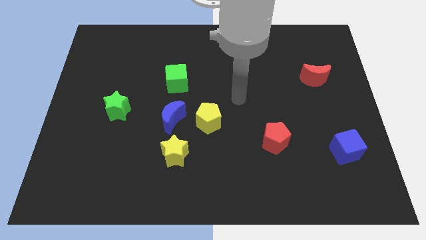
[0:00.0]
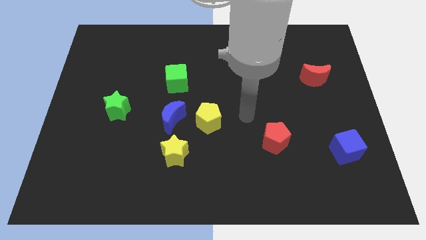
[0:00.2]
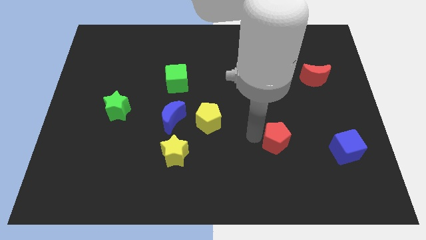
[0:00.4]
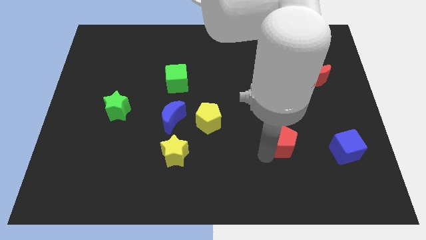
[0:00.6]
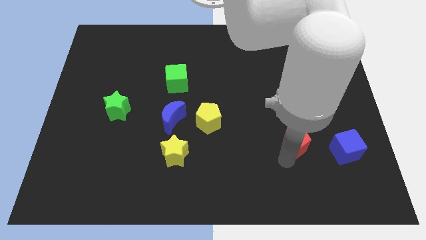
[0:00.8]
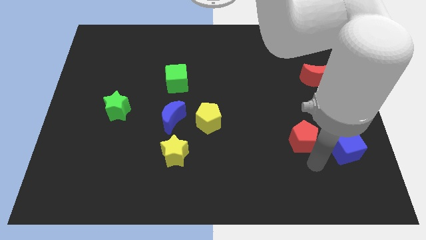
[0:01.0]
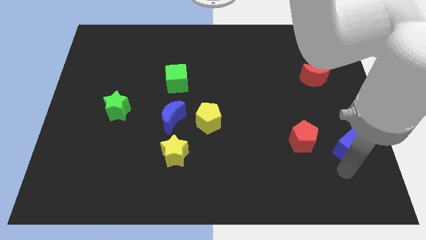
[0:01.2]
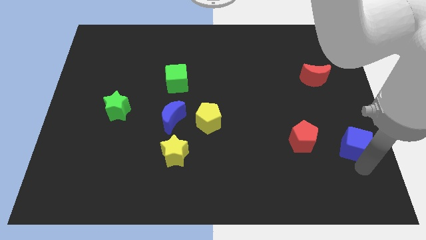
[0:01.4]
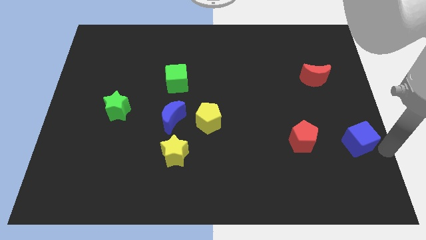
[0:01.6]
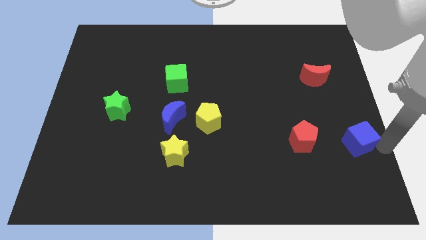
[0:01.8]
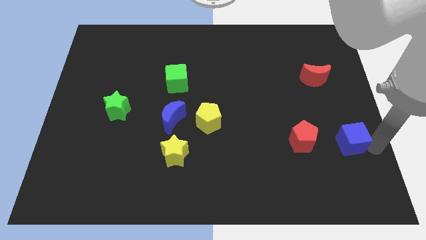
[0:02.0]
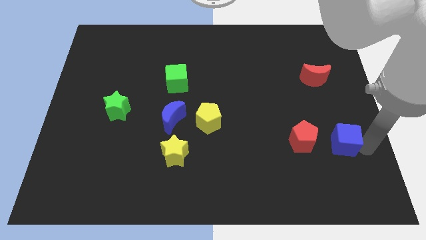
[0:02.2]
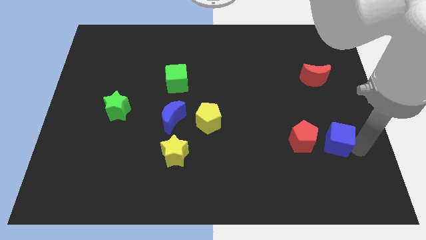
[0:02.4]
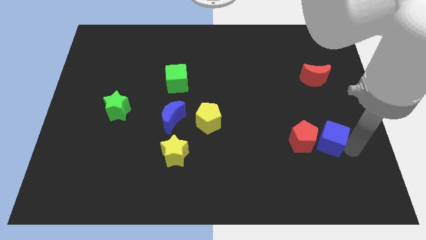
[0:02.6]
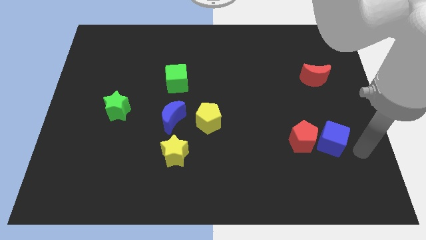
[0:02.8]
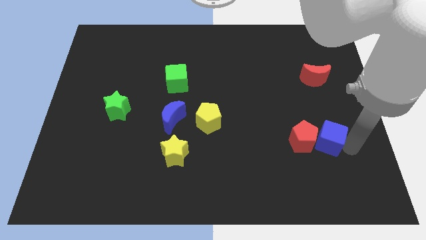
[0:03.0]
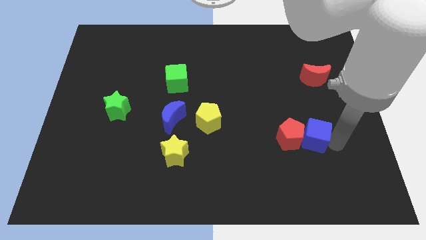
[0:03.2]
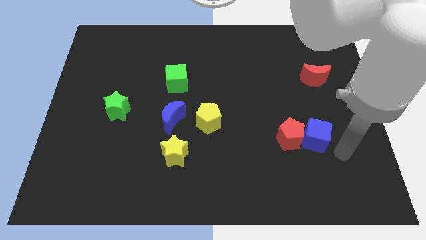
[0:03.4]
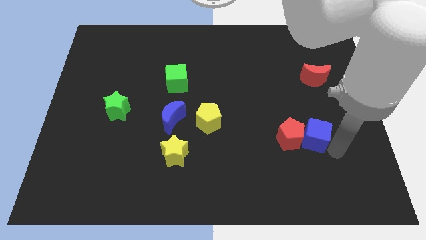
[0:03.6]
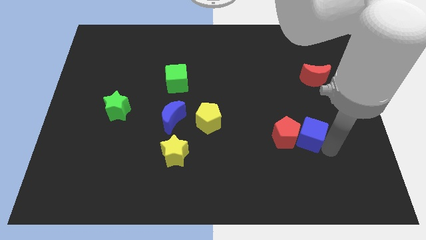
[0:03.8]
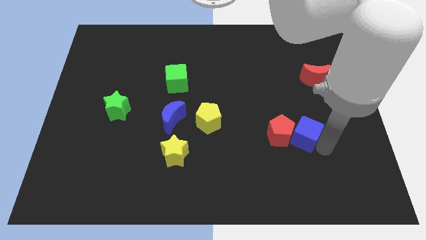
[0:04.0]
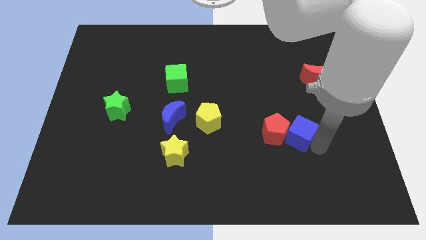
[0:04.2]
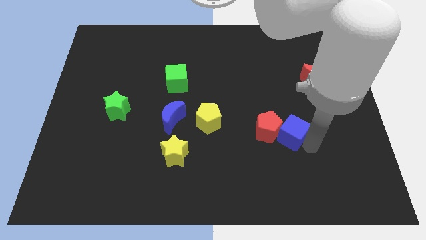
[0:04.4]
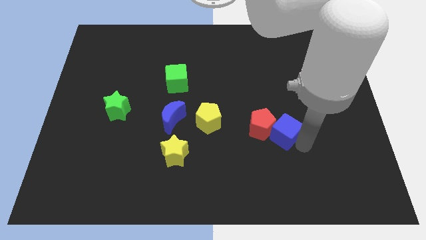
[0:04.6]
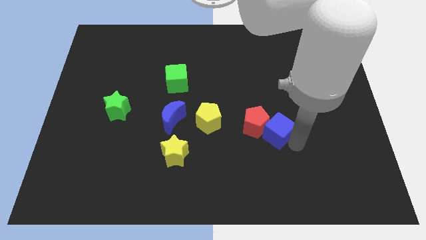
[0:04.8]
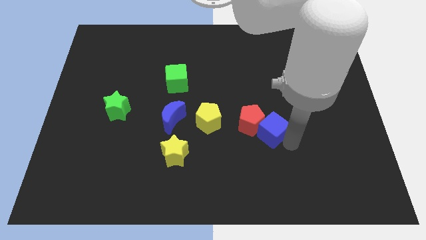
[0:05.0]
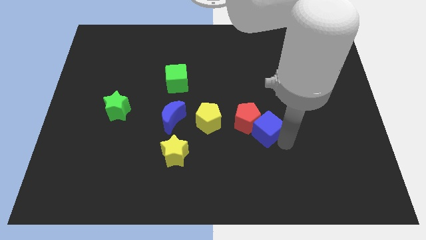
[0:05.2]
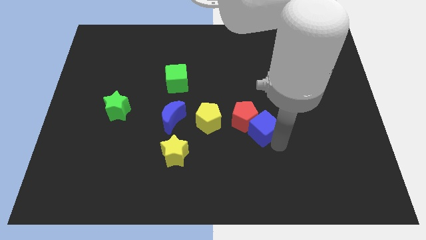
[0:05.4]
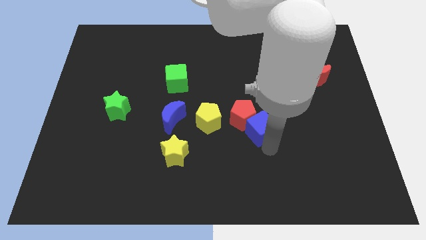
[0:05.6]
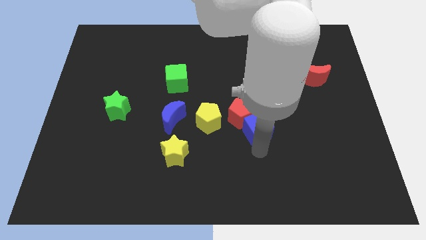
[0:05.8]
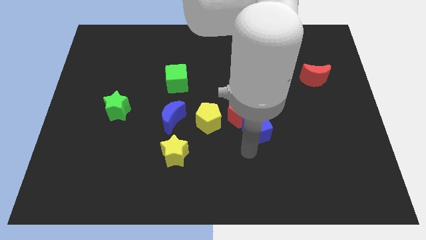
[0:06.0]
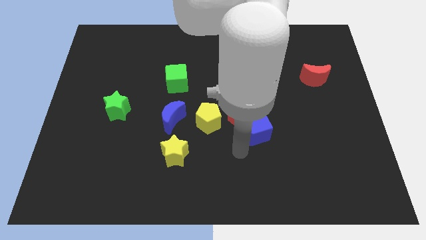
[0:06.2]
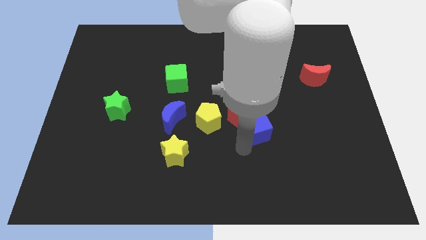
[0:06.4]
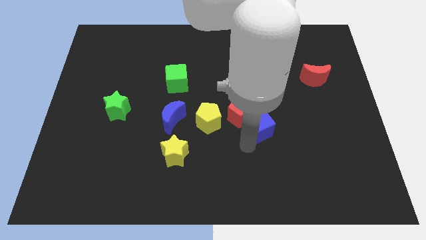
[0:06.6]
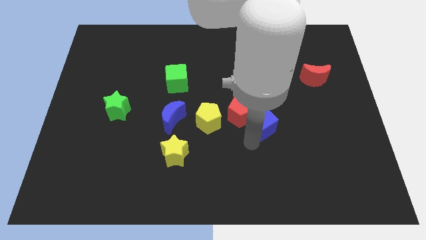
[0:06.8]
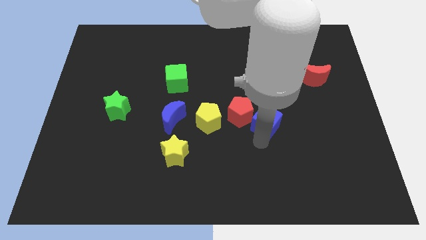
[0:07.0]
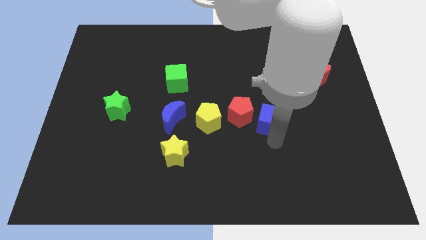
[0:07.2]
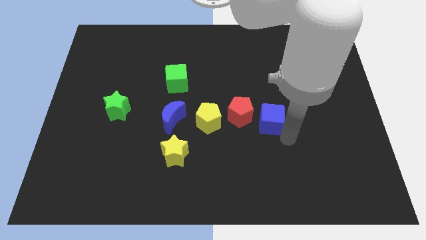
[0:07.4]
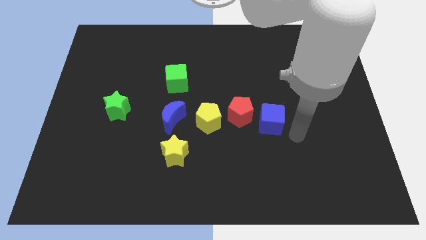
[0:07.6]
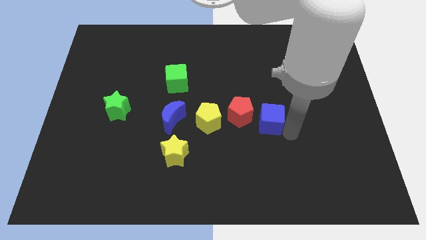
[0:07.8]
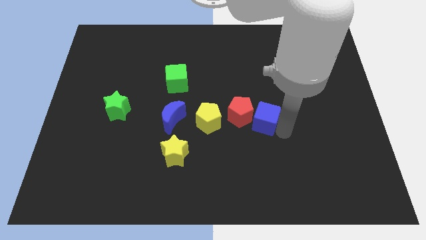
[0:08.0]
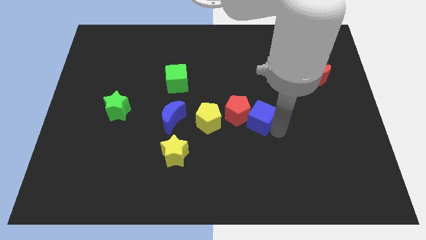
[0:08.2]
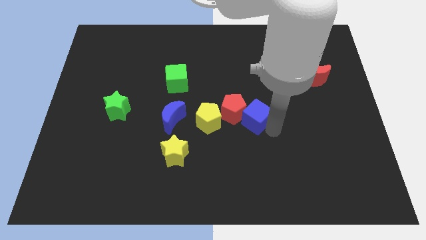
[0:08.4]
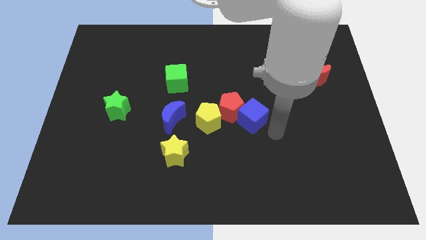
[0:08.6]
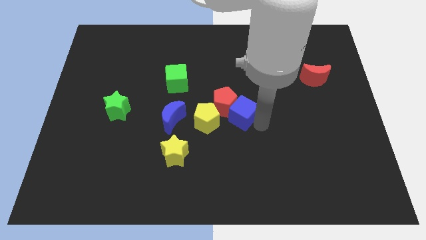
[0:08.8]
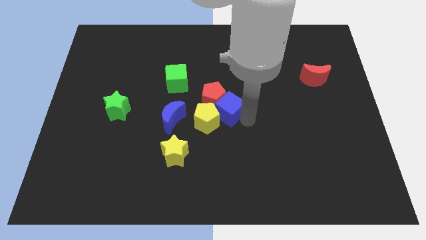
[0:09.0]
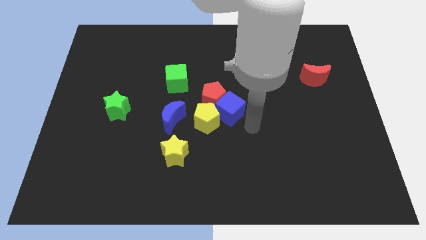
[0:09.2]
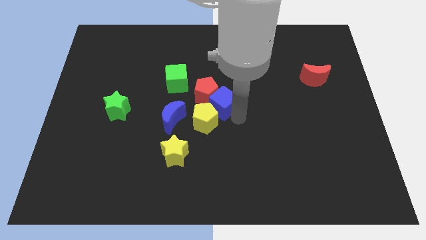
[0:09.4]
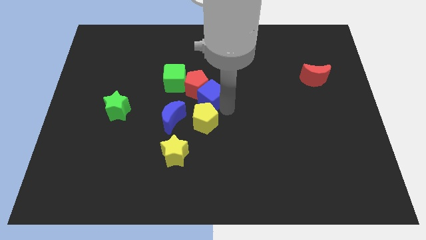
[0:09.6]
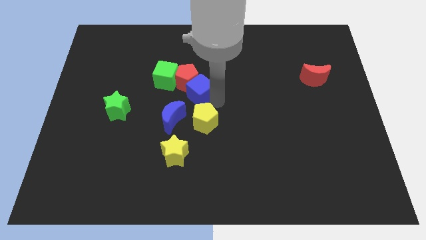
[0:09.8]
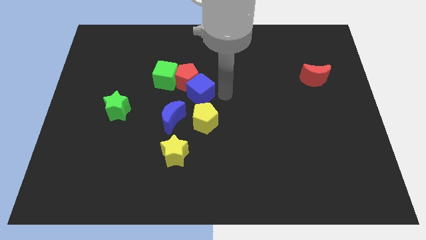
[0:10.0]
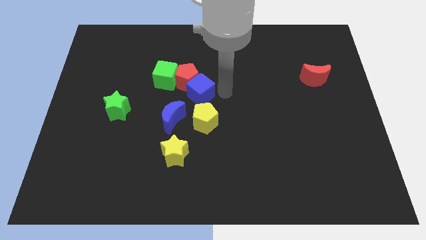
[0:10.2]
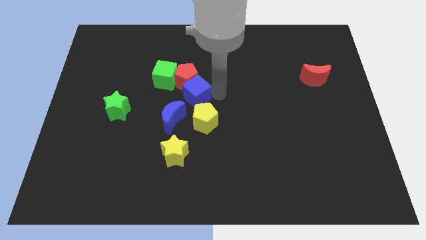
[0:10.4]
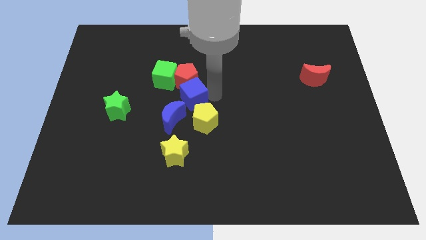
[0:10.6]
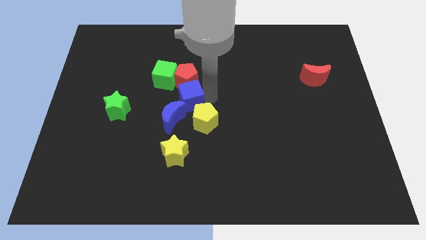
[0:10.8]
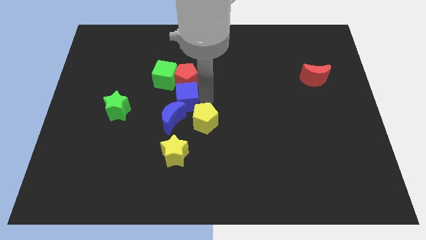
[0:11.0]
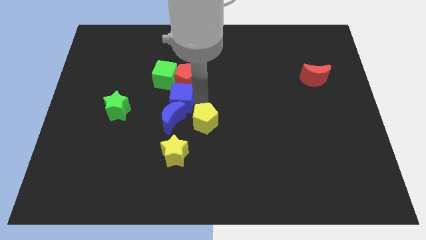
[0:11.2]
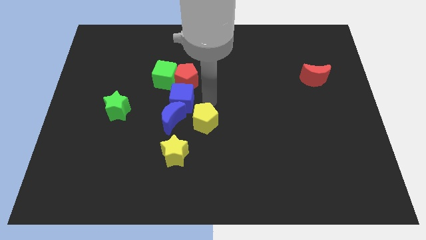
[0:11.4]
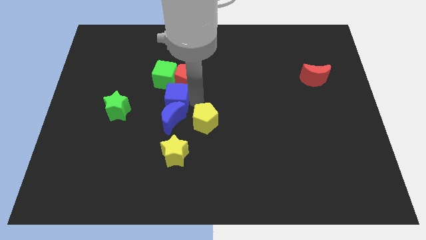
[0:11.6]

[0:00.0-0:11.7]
slide the blue cube to the top left of the blue moon

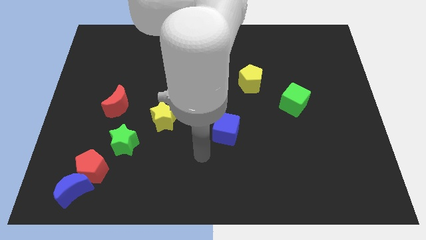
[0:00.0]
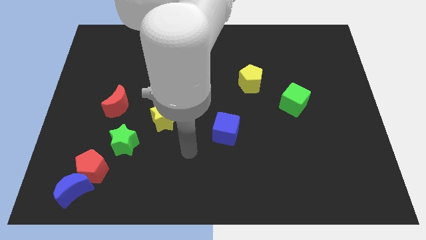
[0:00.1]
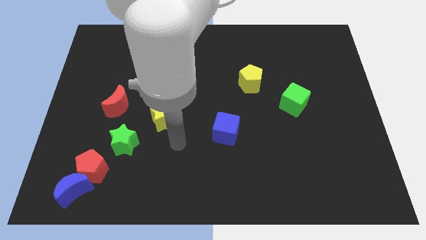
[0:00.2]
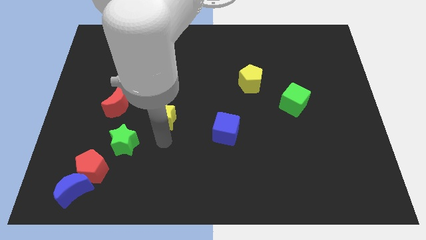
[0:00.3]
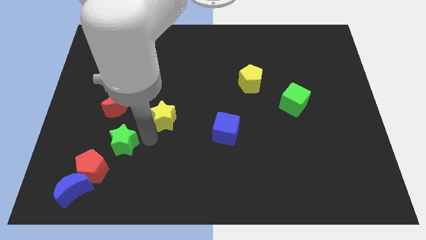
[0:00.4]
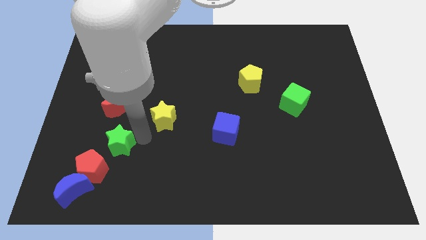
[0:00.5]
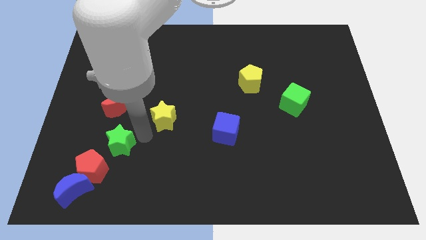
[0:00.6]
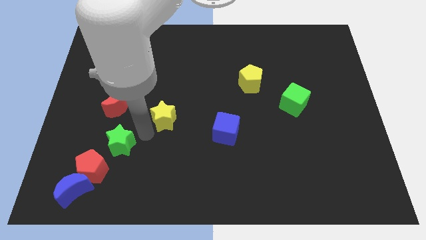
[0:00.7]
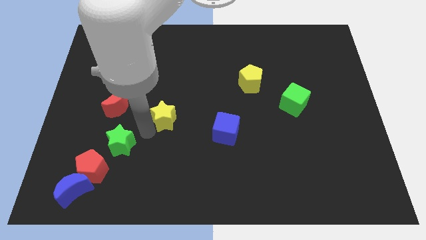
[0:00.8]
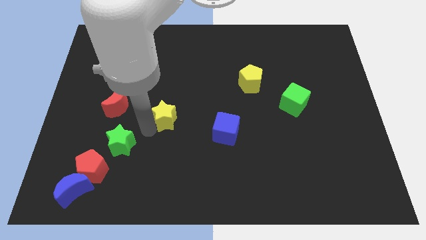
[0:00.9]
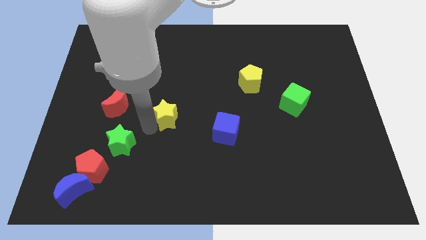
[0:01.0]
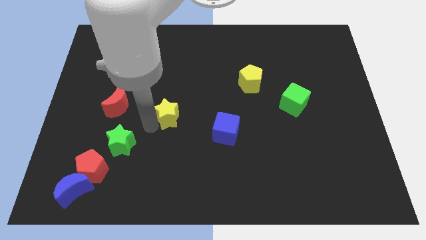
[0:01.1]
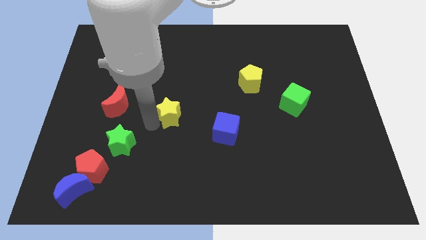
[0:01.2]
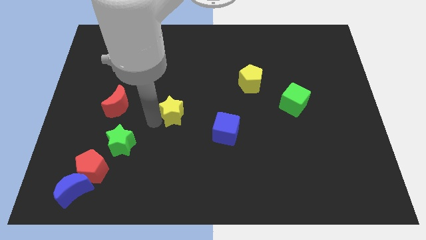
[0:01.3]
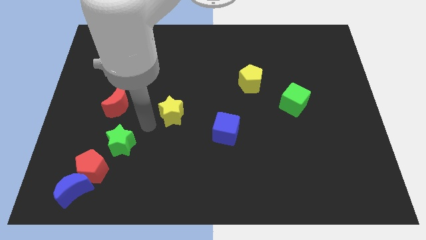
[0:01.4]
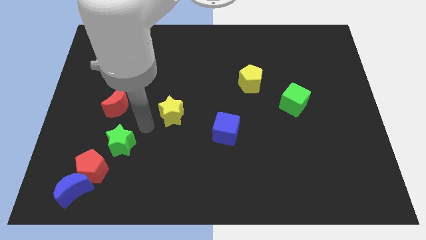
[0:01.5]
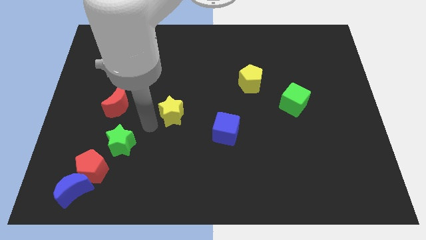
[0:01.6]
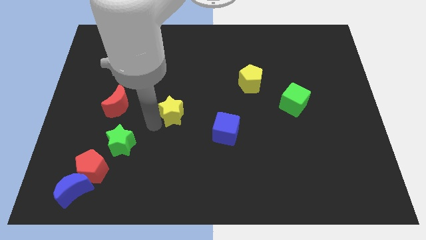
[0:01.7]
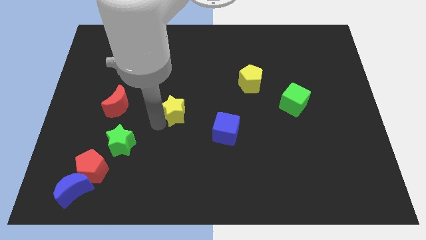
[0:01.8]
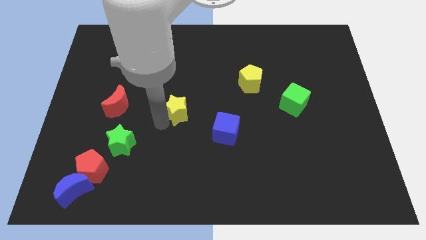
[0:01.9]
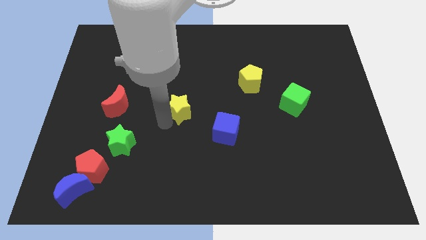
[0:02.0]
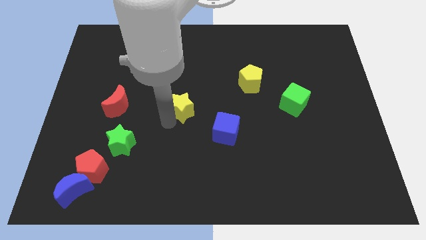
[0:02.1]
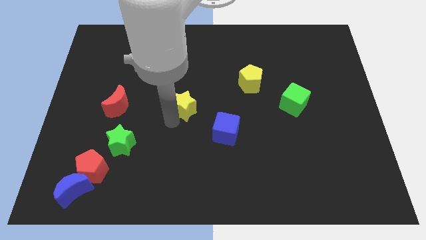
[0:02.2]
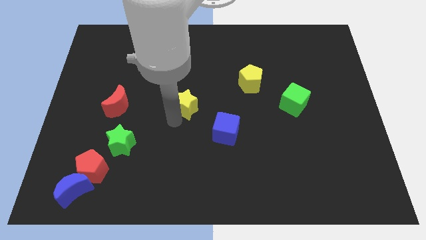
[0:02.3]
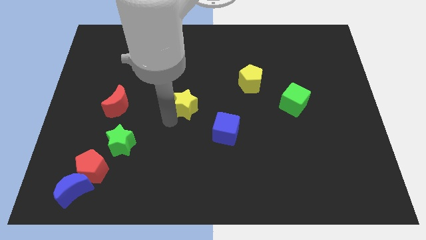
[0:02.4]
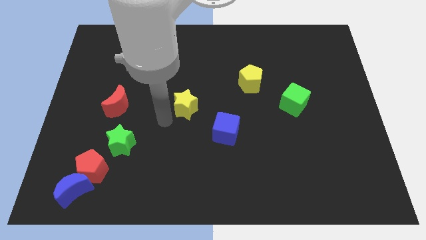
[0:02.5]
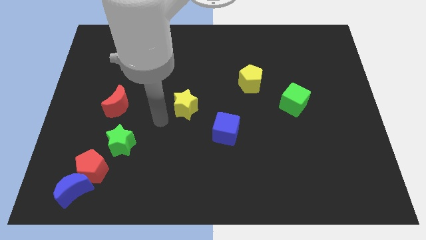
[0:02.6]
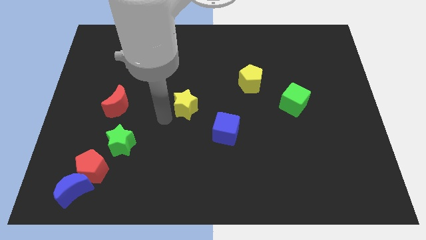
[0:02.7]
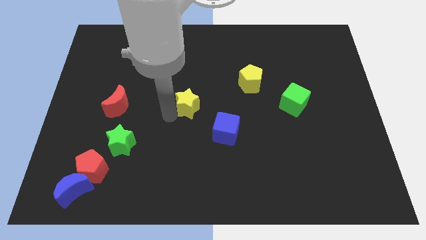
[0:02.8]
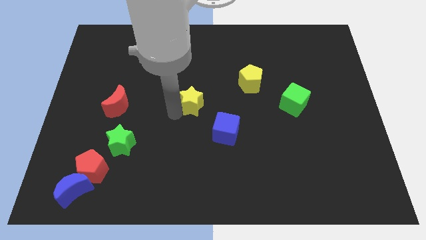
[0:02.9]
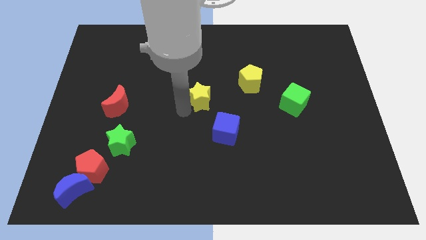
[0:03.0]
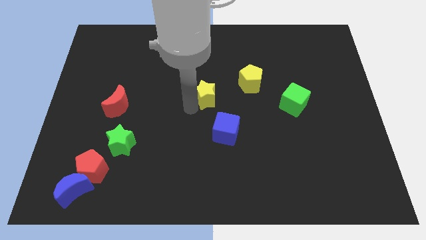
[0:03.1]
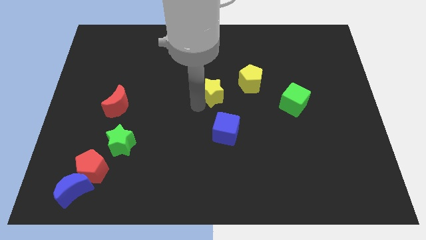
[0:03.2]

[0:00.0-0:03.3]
move the yellow star left of the yellow pentagon
